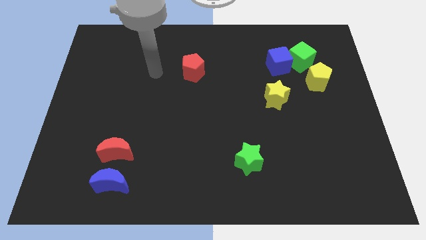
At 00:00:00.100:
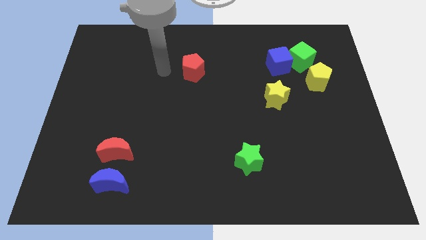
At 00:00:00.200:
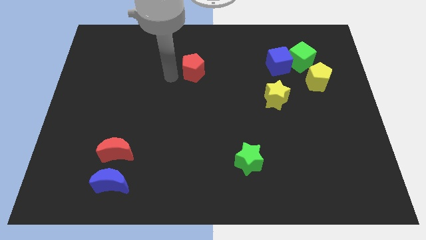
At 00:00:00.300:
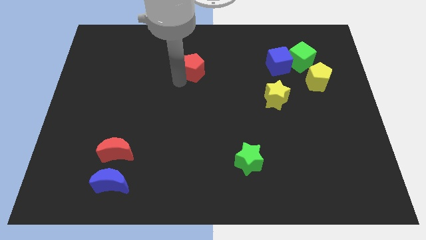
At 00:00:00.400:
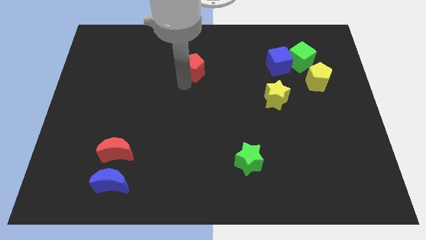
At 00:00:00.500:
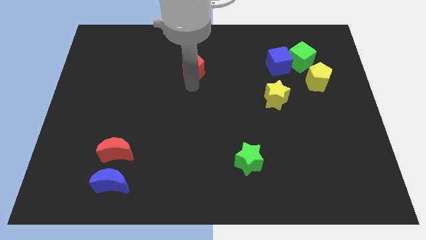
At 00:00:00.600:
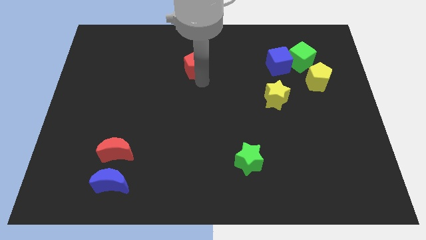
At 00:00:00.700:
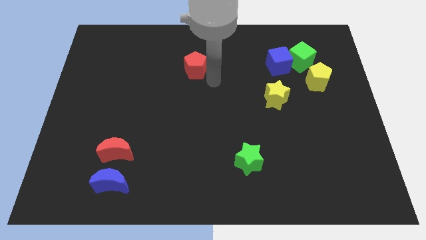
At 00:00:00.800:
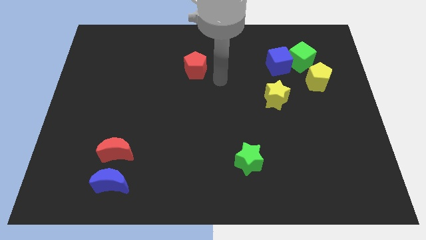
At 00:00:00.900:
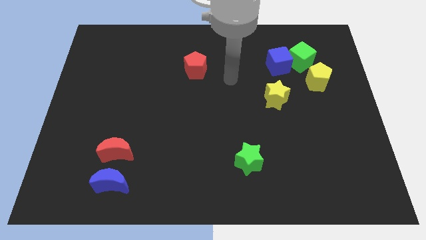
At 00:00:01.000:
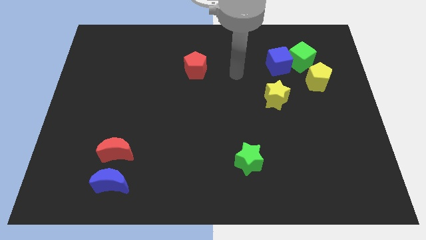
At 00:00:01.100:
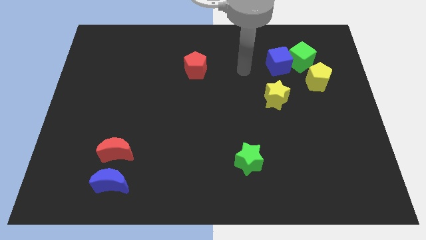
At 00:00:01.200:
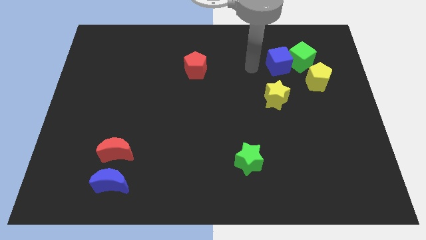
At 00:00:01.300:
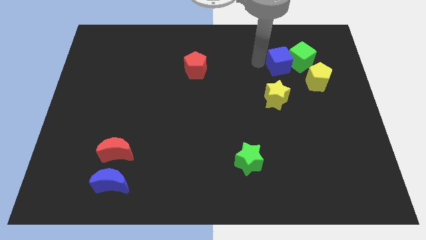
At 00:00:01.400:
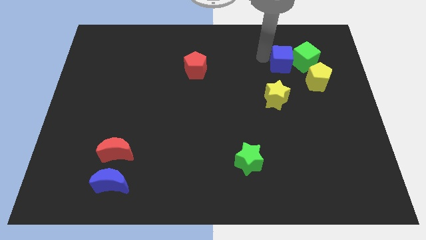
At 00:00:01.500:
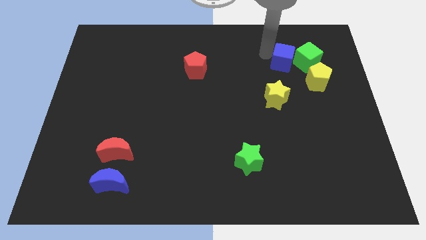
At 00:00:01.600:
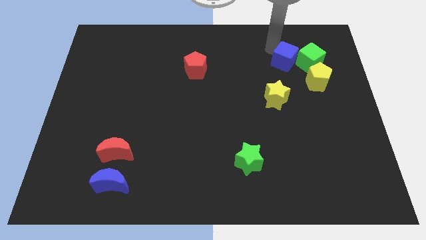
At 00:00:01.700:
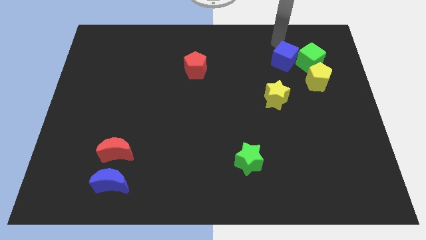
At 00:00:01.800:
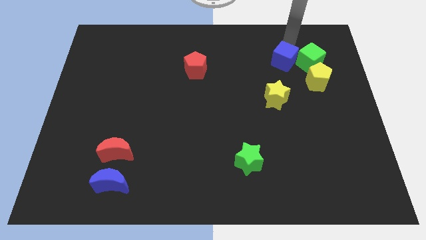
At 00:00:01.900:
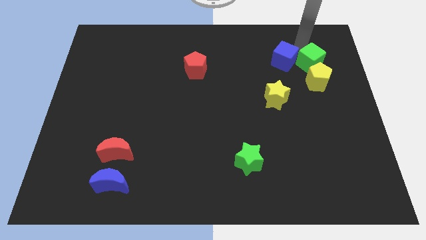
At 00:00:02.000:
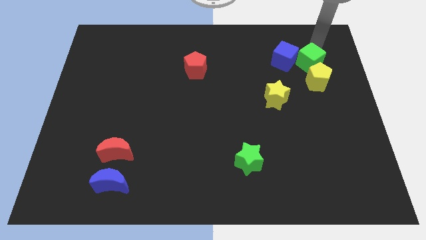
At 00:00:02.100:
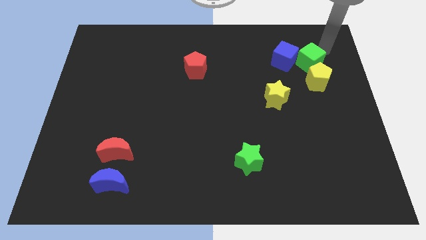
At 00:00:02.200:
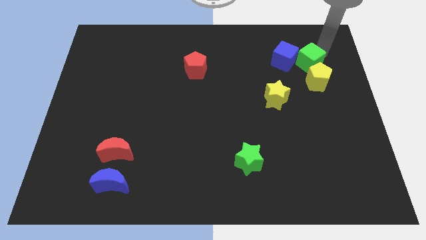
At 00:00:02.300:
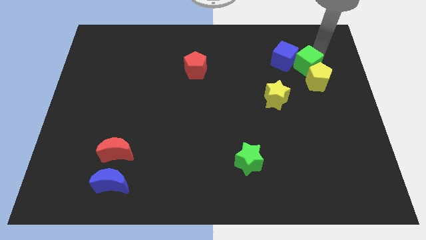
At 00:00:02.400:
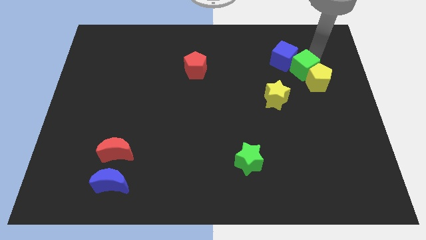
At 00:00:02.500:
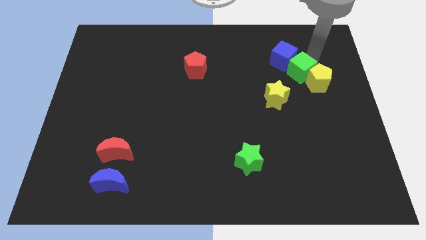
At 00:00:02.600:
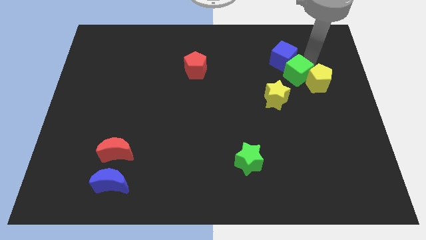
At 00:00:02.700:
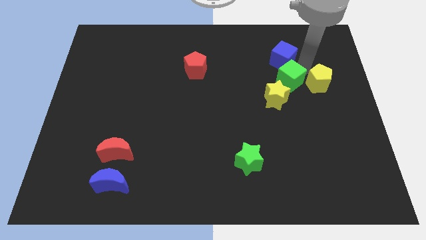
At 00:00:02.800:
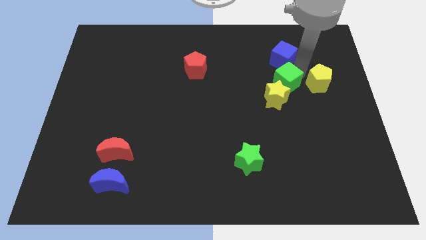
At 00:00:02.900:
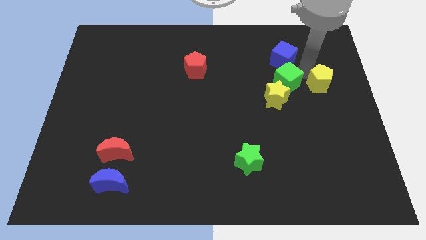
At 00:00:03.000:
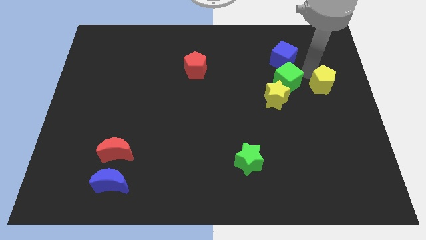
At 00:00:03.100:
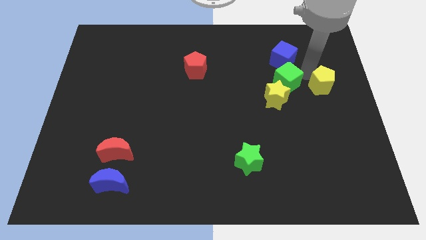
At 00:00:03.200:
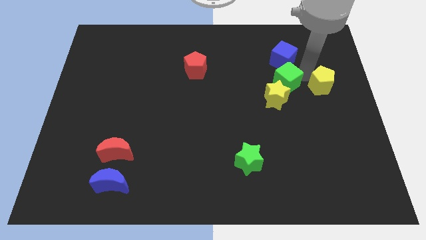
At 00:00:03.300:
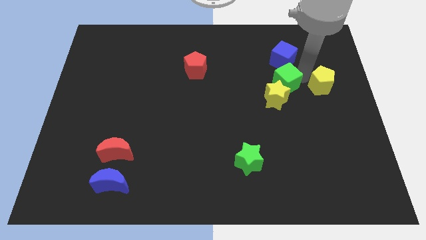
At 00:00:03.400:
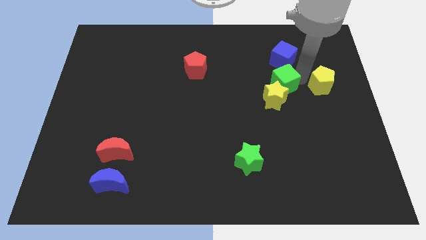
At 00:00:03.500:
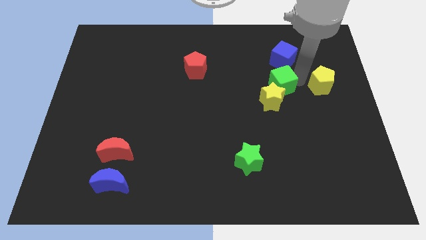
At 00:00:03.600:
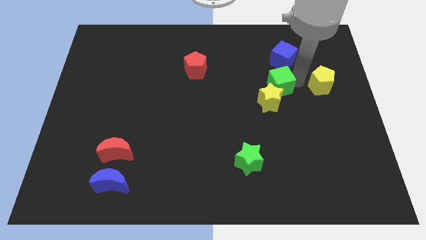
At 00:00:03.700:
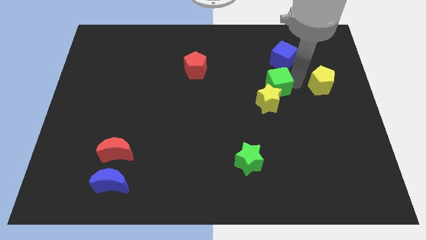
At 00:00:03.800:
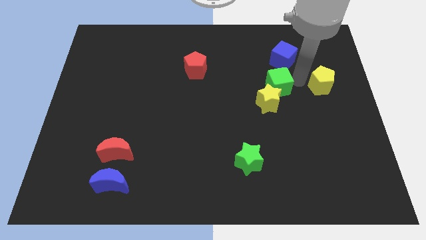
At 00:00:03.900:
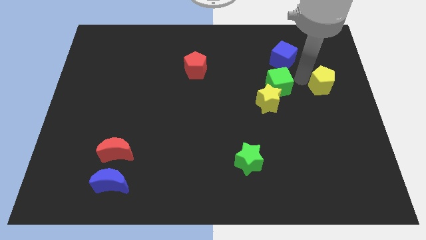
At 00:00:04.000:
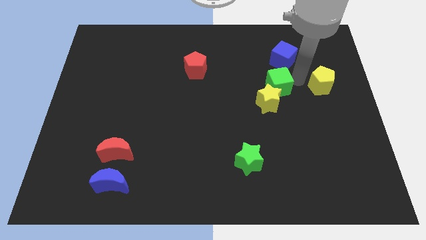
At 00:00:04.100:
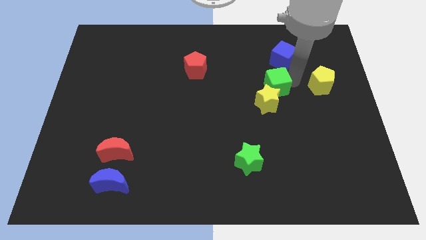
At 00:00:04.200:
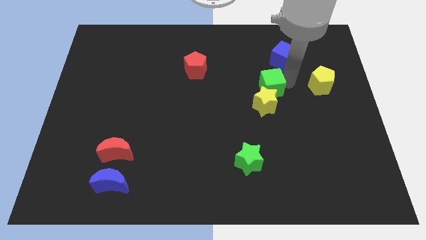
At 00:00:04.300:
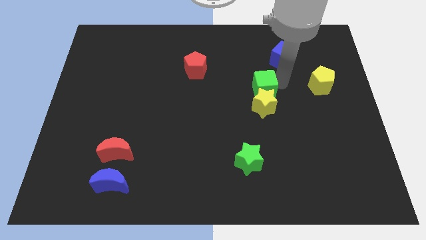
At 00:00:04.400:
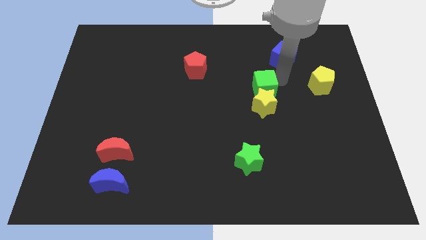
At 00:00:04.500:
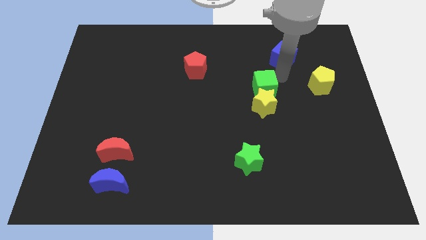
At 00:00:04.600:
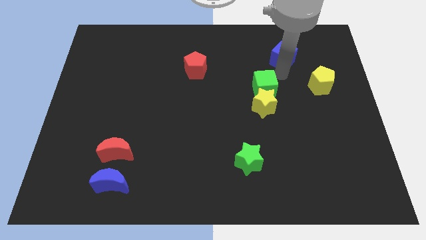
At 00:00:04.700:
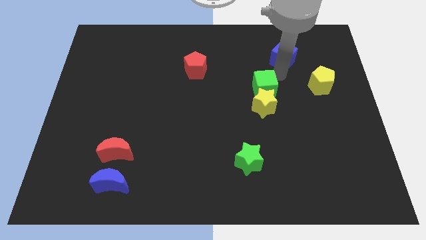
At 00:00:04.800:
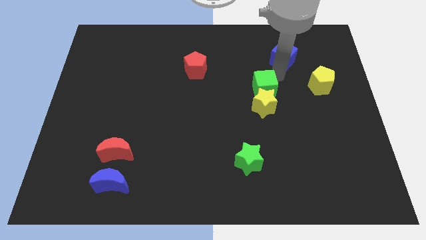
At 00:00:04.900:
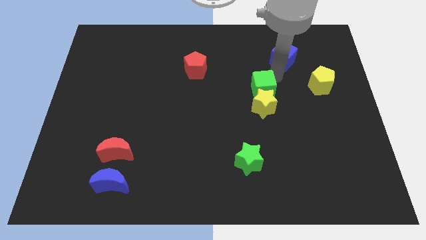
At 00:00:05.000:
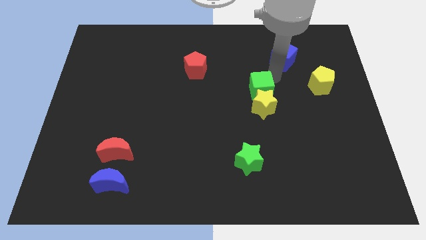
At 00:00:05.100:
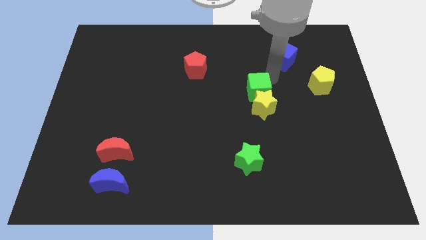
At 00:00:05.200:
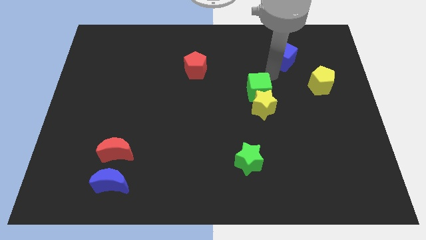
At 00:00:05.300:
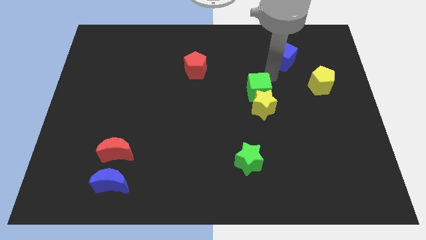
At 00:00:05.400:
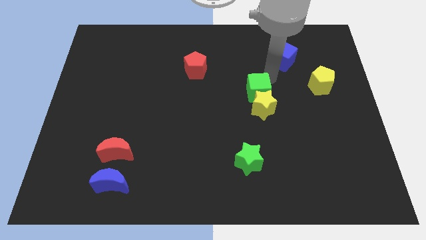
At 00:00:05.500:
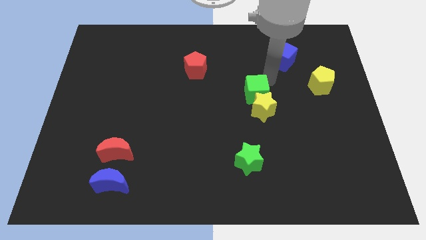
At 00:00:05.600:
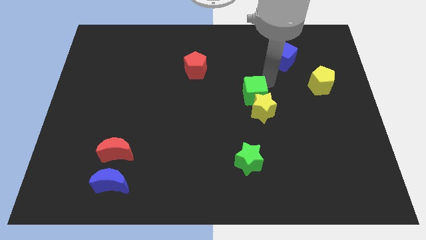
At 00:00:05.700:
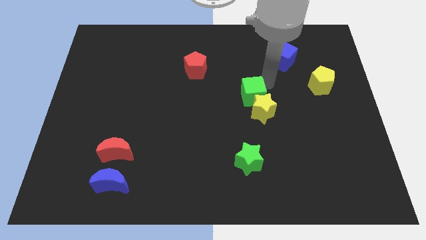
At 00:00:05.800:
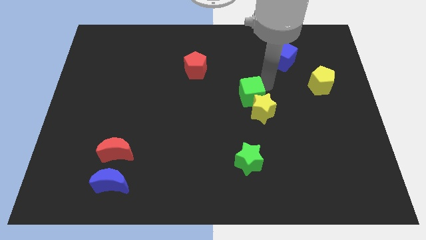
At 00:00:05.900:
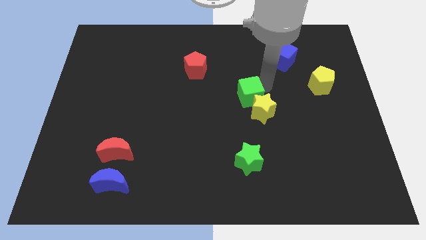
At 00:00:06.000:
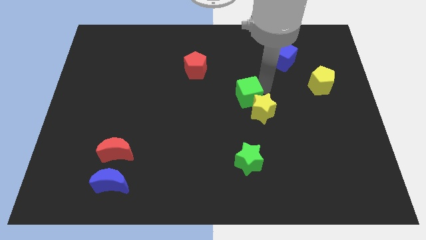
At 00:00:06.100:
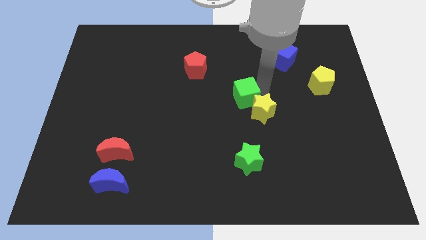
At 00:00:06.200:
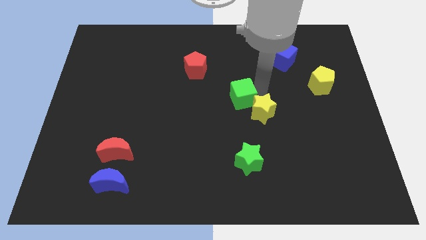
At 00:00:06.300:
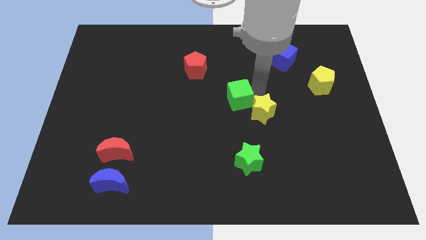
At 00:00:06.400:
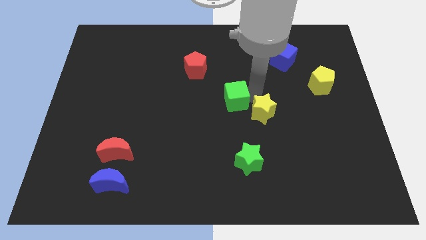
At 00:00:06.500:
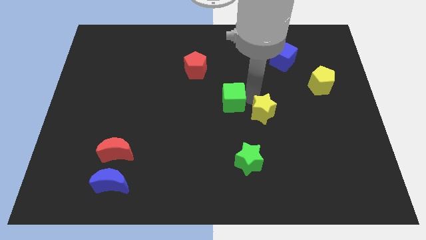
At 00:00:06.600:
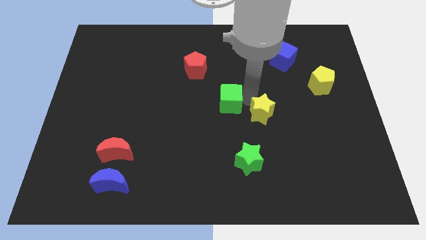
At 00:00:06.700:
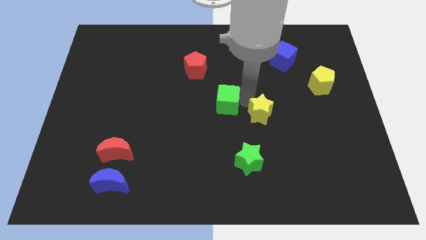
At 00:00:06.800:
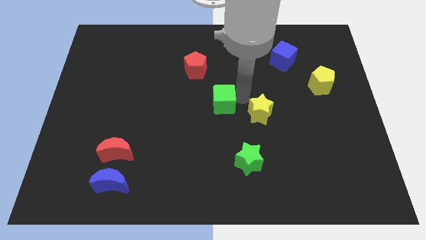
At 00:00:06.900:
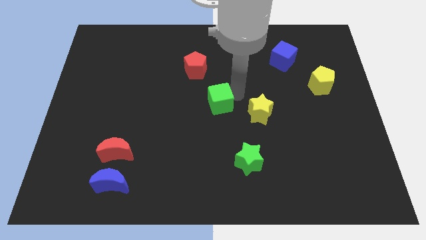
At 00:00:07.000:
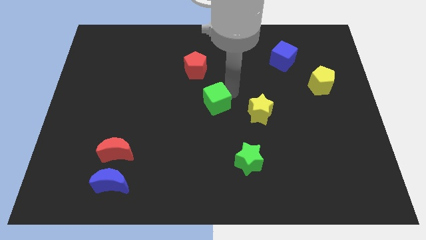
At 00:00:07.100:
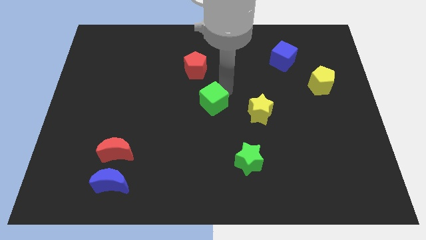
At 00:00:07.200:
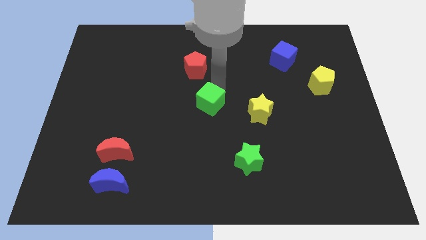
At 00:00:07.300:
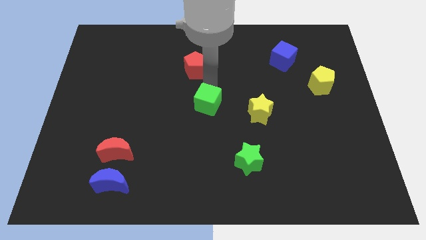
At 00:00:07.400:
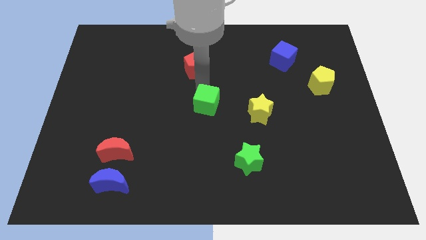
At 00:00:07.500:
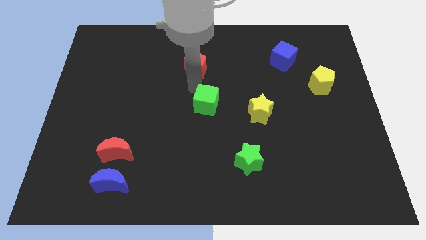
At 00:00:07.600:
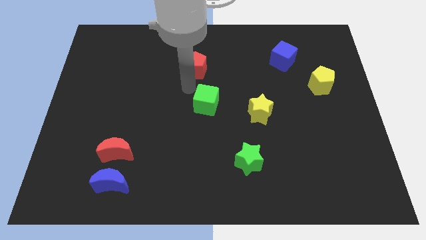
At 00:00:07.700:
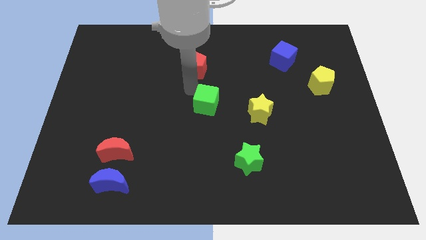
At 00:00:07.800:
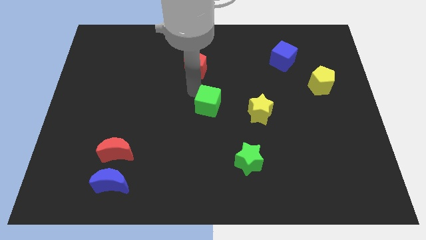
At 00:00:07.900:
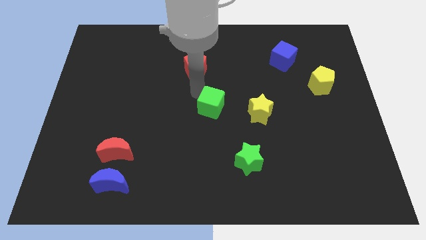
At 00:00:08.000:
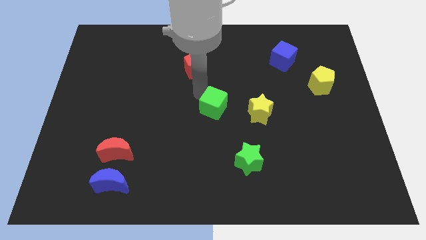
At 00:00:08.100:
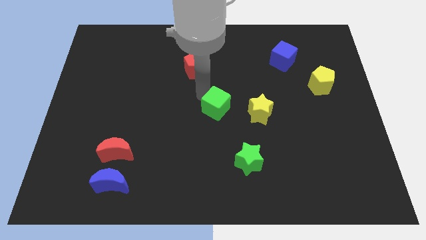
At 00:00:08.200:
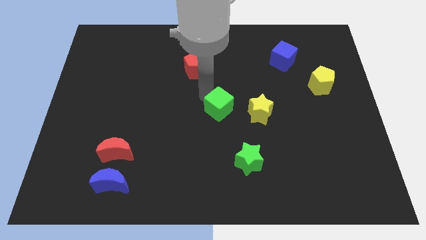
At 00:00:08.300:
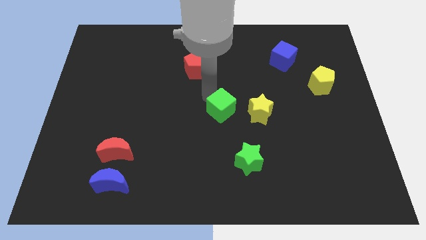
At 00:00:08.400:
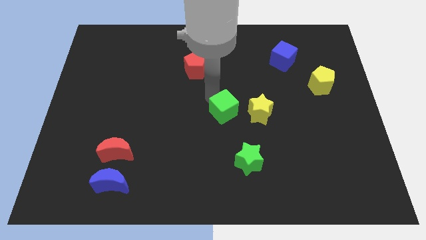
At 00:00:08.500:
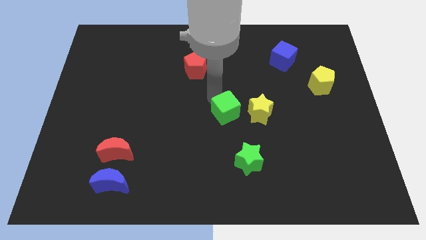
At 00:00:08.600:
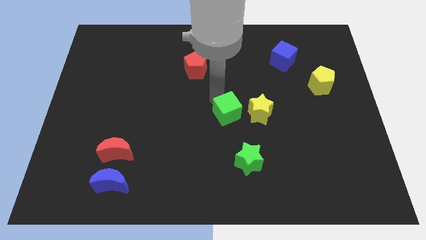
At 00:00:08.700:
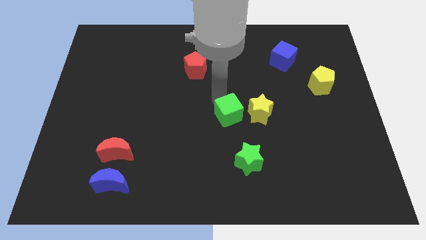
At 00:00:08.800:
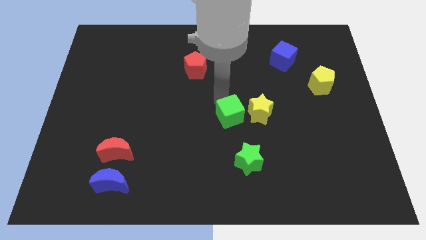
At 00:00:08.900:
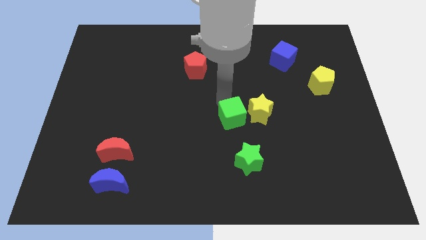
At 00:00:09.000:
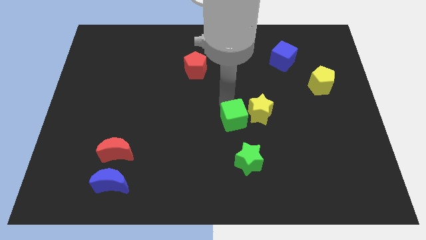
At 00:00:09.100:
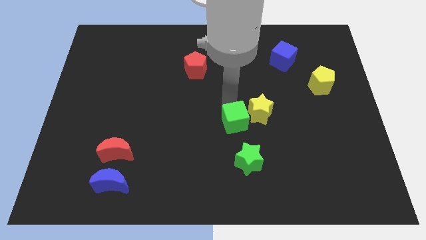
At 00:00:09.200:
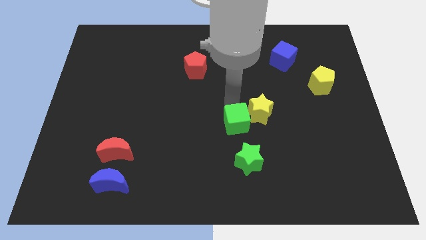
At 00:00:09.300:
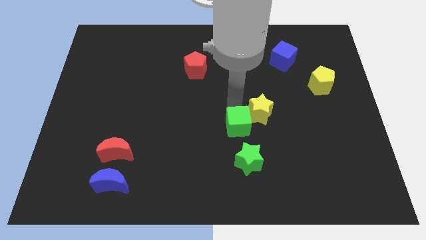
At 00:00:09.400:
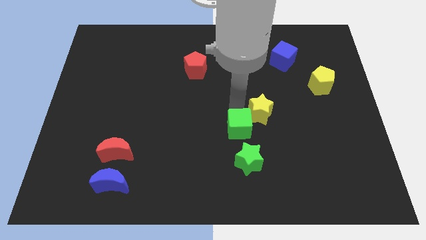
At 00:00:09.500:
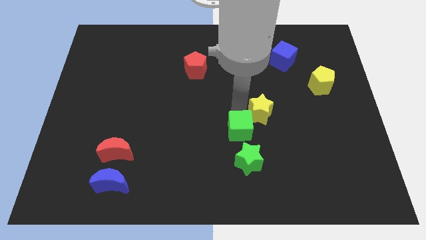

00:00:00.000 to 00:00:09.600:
push the green cube to the top left side of the green star
